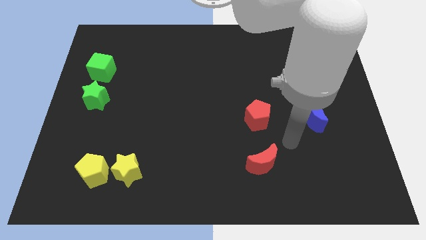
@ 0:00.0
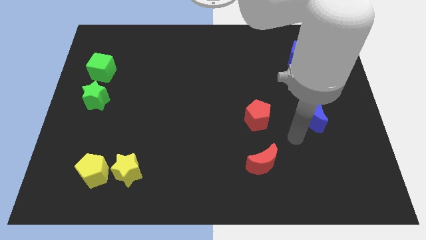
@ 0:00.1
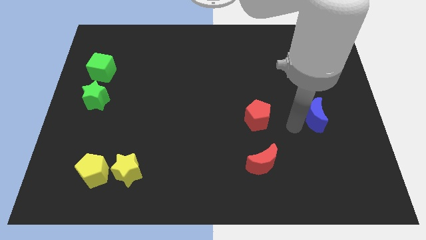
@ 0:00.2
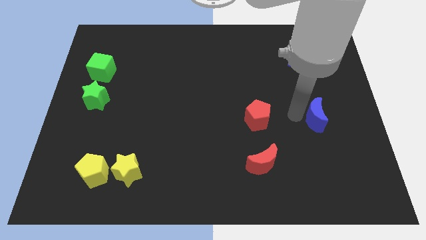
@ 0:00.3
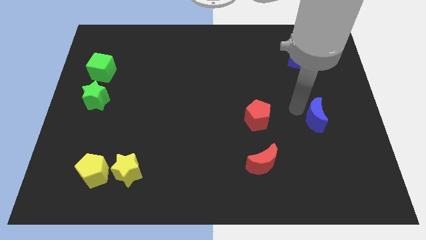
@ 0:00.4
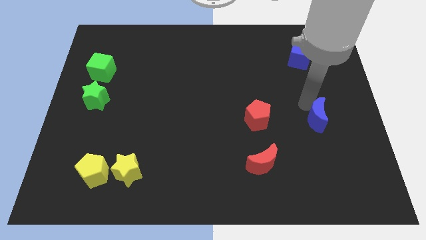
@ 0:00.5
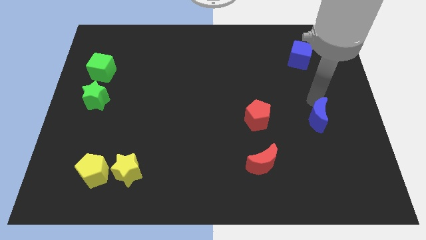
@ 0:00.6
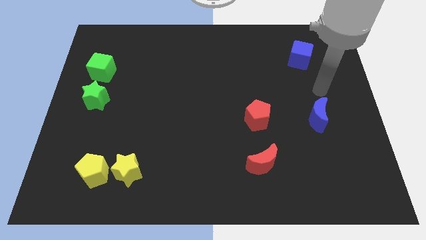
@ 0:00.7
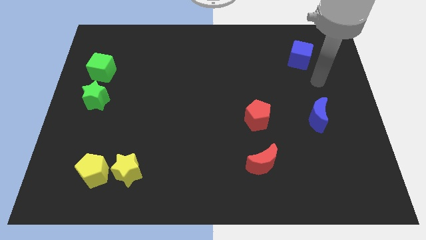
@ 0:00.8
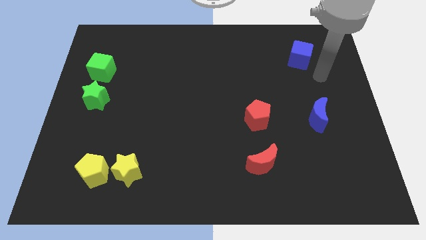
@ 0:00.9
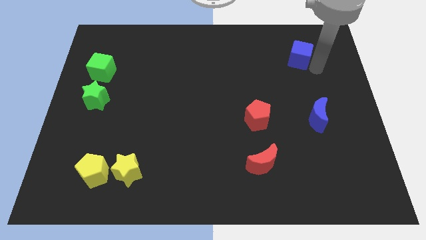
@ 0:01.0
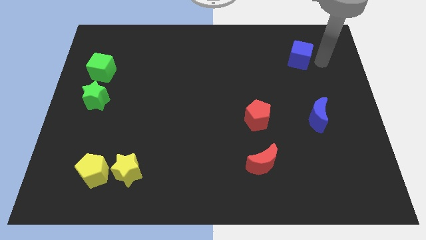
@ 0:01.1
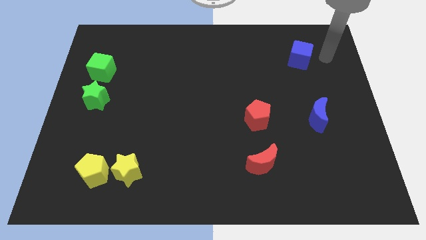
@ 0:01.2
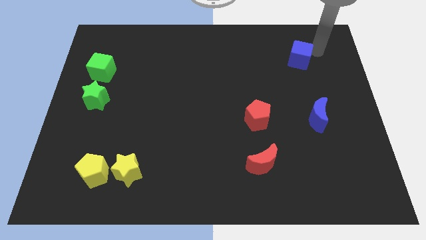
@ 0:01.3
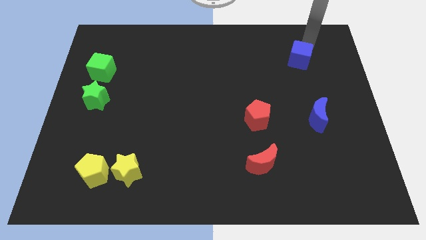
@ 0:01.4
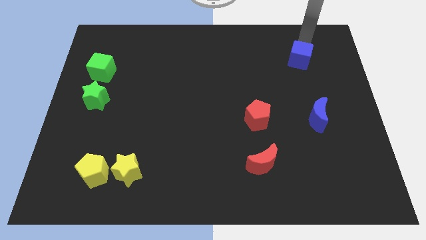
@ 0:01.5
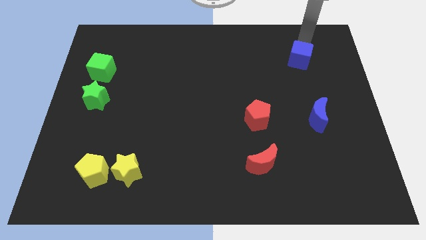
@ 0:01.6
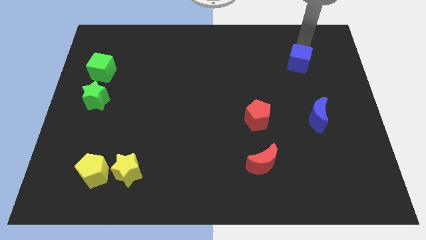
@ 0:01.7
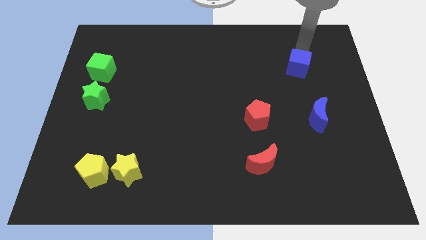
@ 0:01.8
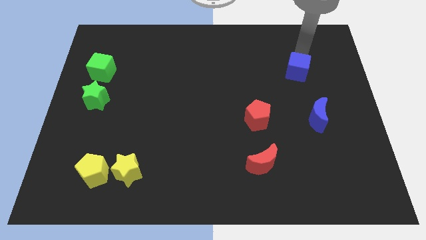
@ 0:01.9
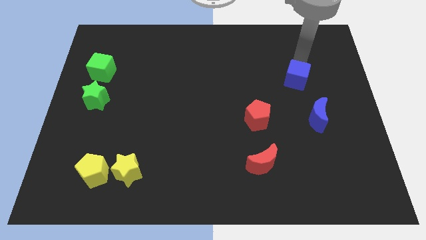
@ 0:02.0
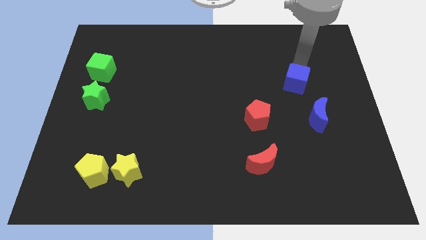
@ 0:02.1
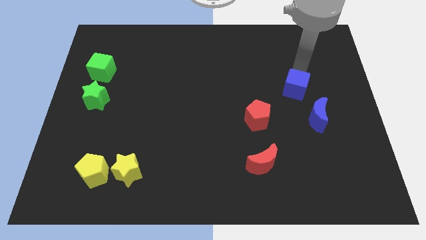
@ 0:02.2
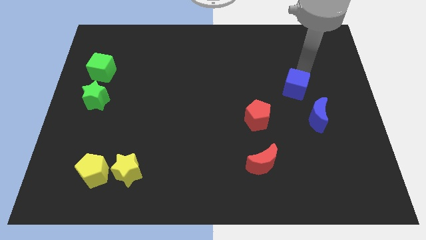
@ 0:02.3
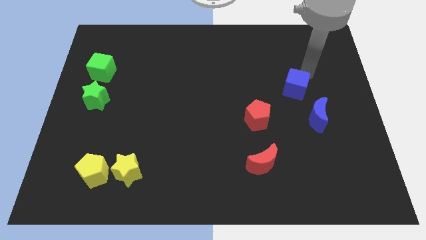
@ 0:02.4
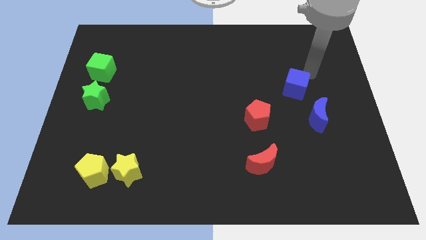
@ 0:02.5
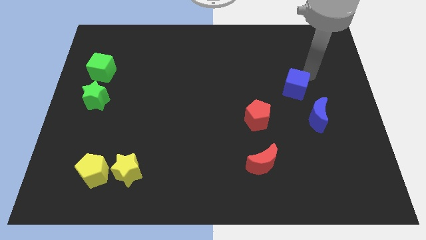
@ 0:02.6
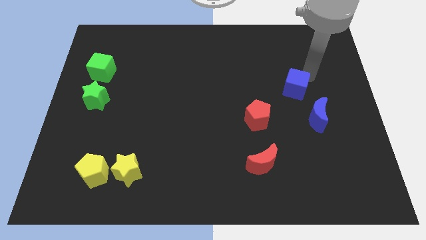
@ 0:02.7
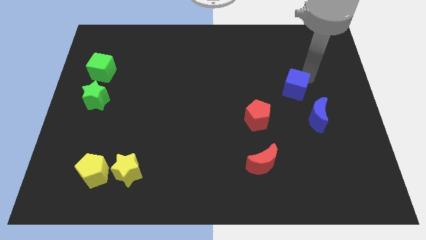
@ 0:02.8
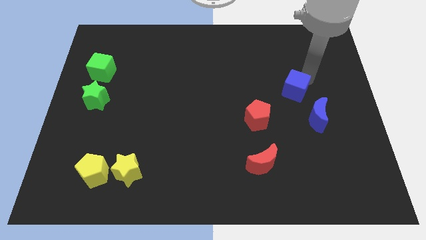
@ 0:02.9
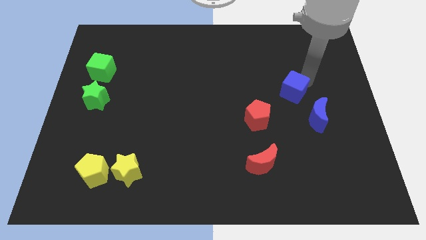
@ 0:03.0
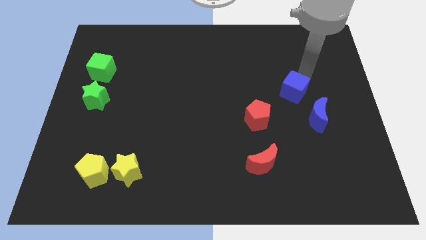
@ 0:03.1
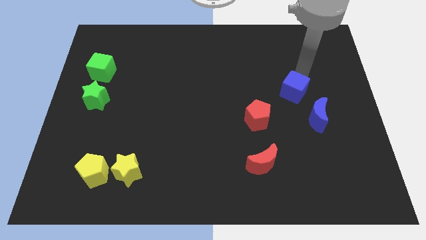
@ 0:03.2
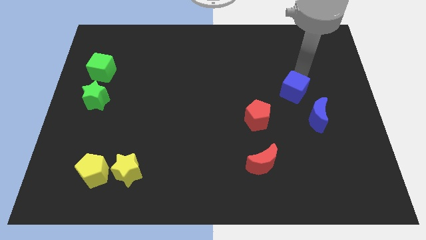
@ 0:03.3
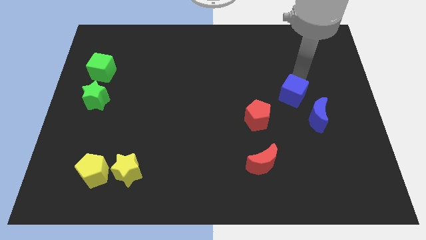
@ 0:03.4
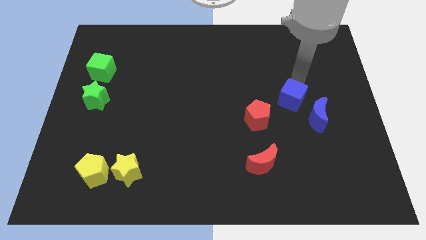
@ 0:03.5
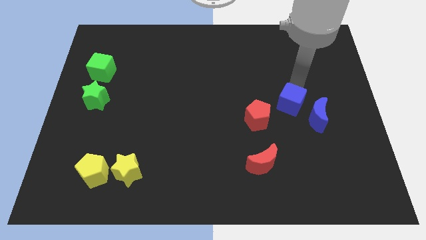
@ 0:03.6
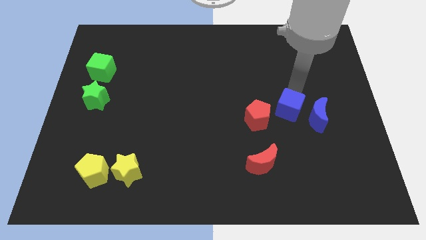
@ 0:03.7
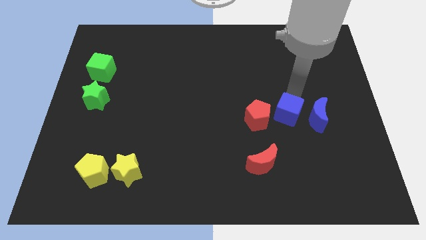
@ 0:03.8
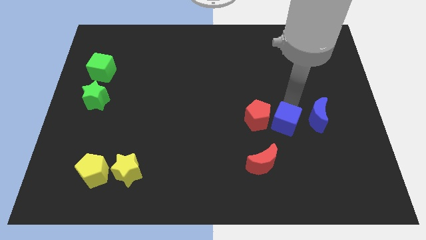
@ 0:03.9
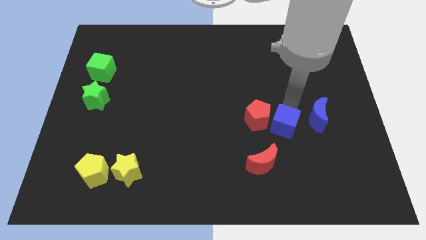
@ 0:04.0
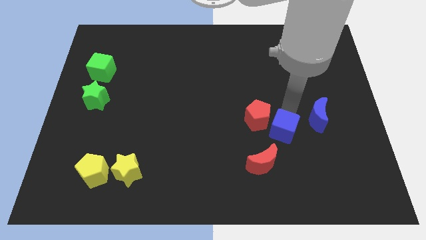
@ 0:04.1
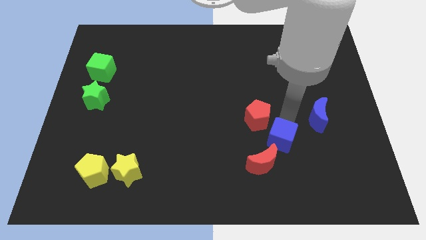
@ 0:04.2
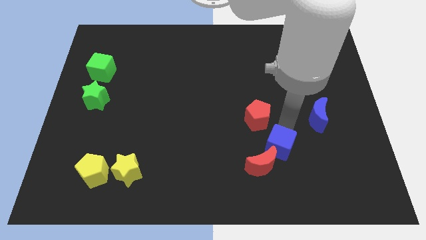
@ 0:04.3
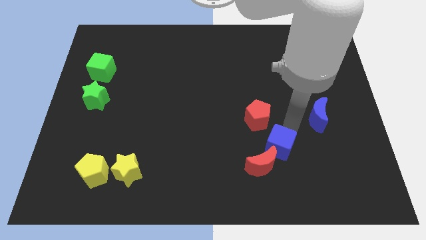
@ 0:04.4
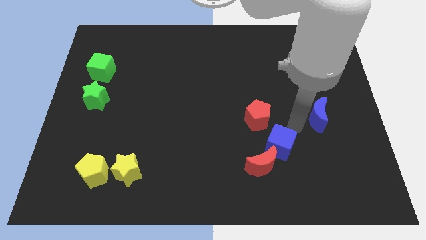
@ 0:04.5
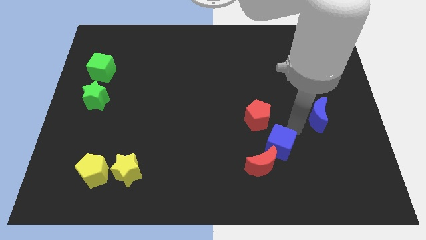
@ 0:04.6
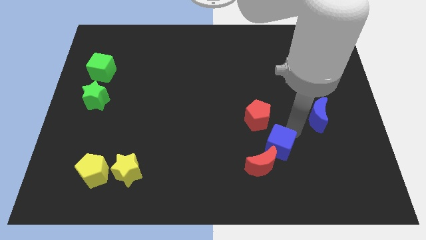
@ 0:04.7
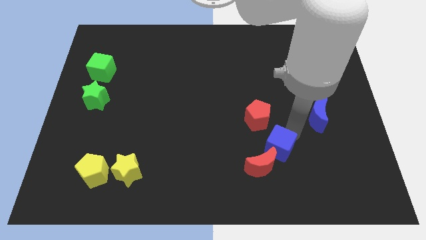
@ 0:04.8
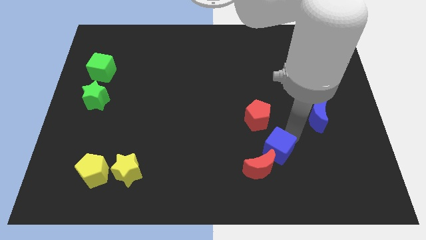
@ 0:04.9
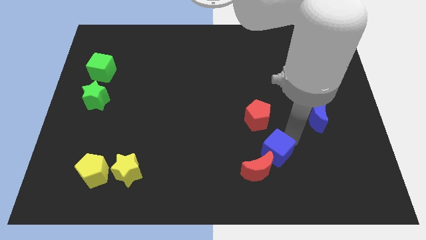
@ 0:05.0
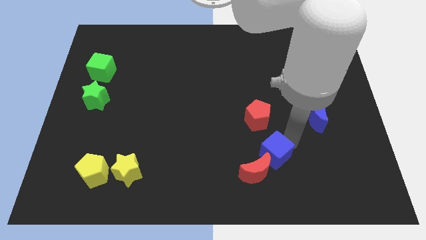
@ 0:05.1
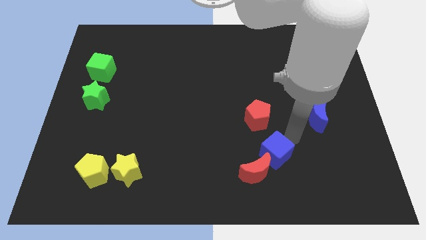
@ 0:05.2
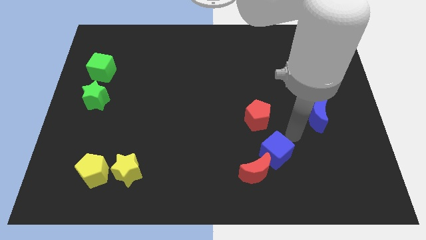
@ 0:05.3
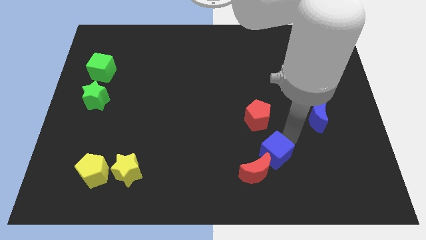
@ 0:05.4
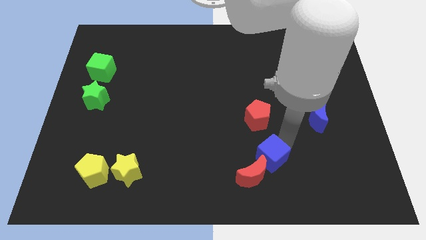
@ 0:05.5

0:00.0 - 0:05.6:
push the blue cube next to the red moon
